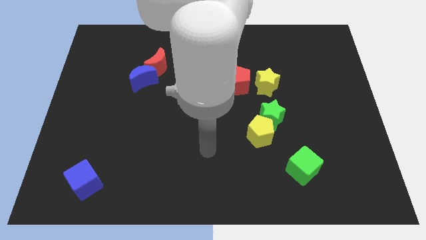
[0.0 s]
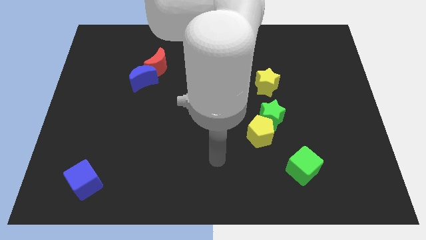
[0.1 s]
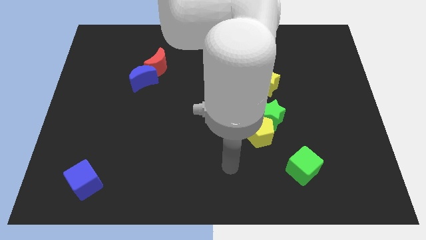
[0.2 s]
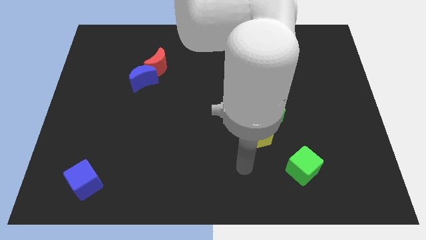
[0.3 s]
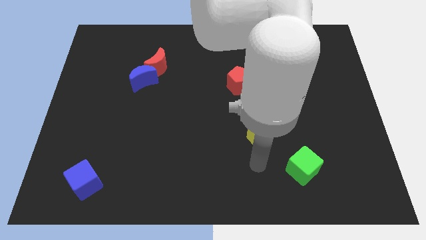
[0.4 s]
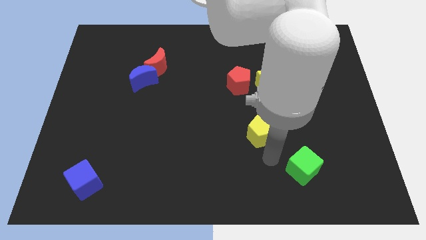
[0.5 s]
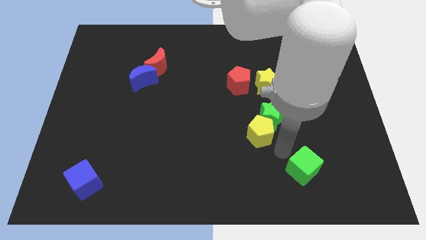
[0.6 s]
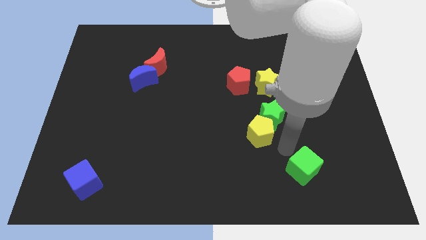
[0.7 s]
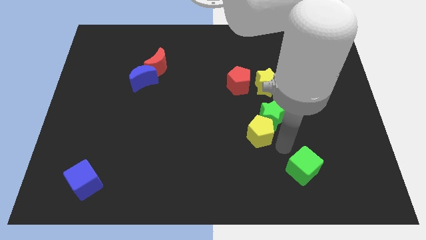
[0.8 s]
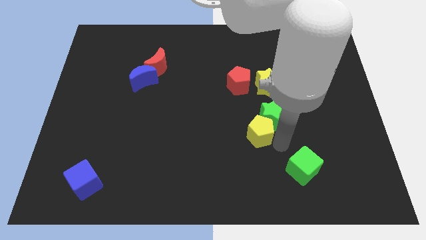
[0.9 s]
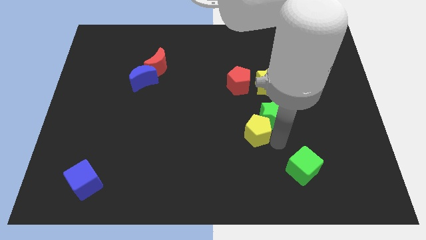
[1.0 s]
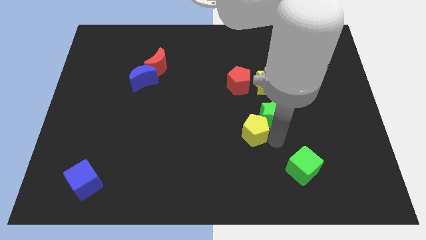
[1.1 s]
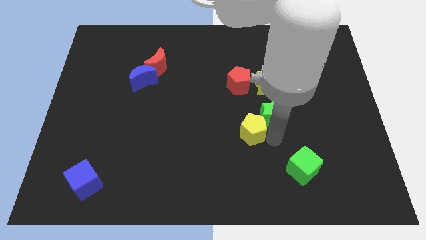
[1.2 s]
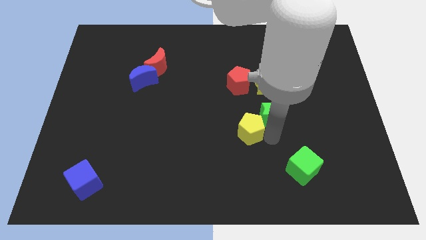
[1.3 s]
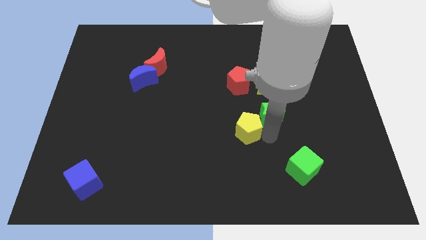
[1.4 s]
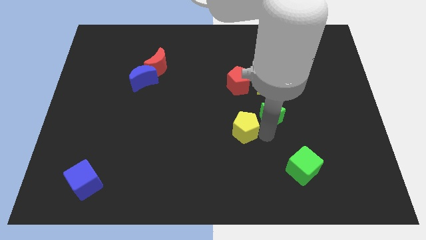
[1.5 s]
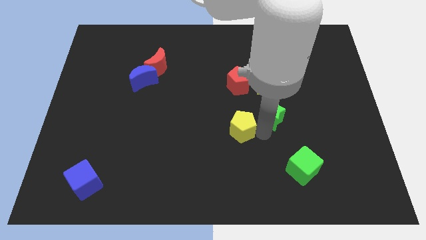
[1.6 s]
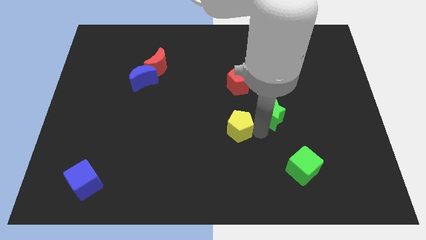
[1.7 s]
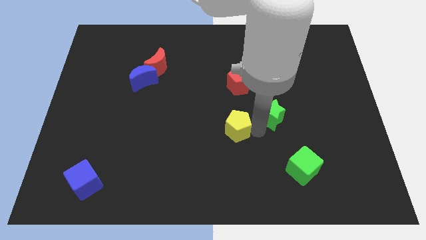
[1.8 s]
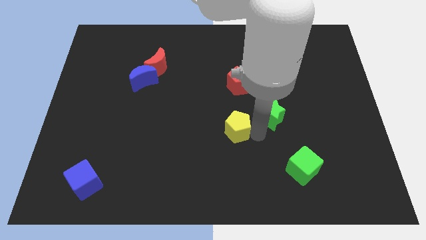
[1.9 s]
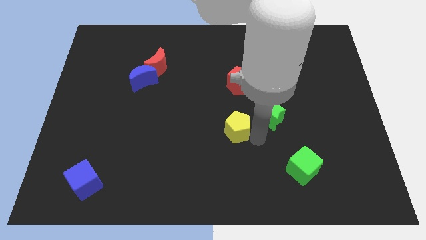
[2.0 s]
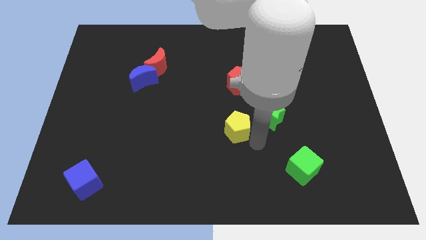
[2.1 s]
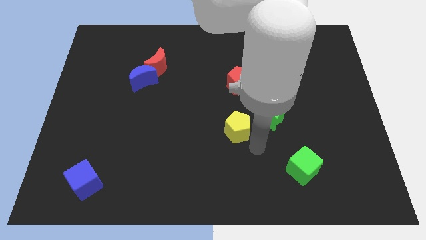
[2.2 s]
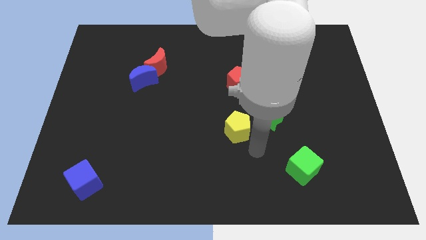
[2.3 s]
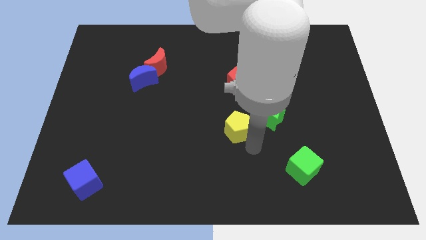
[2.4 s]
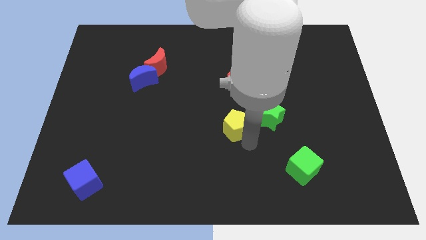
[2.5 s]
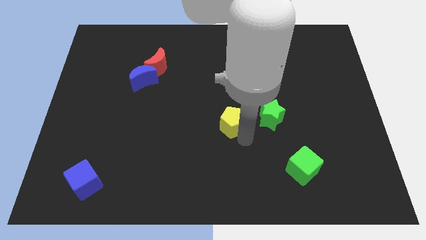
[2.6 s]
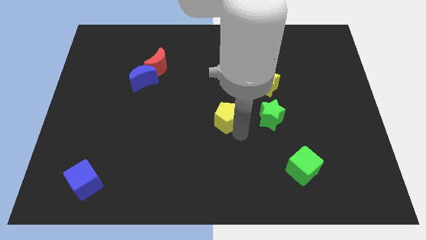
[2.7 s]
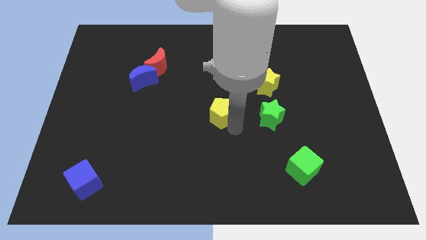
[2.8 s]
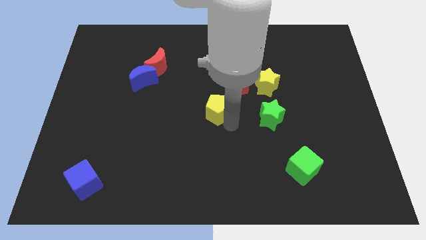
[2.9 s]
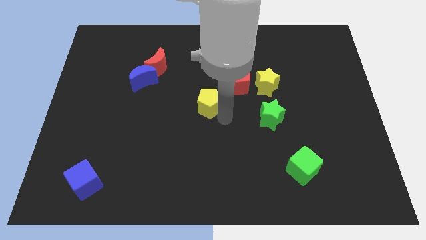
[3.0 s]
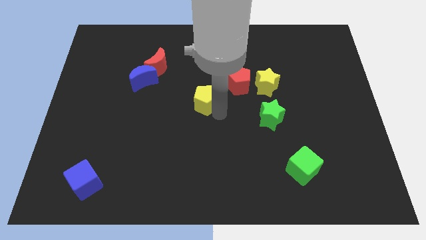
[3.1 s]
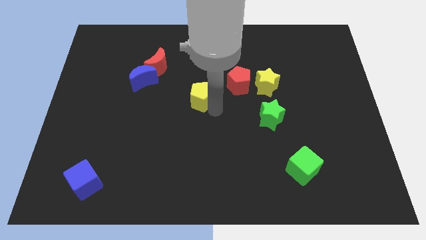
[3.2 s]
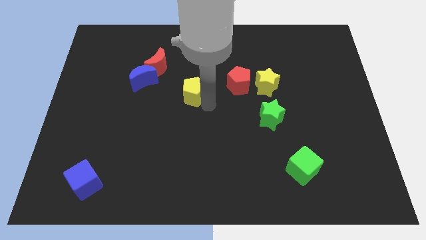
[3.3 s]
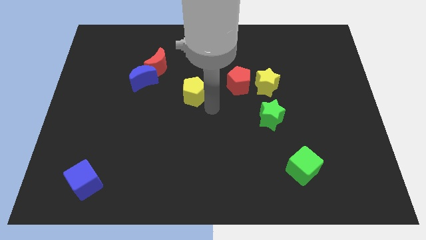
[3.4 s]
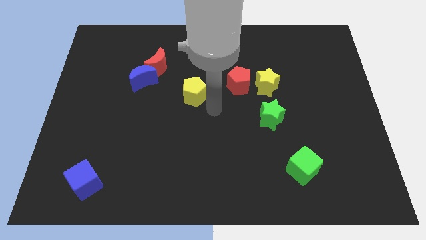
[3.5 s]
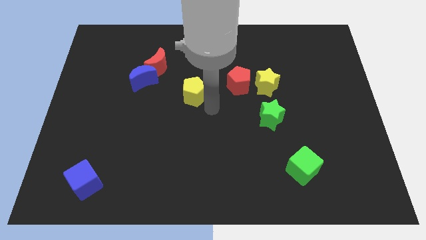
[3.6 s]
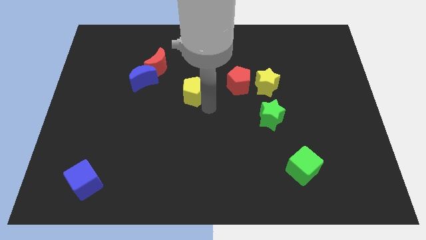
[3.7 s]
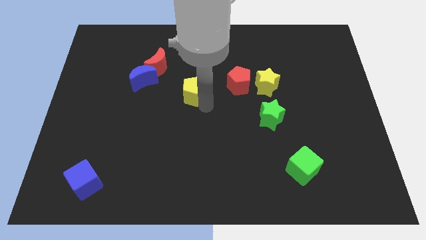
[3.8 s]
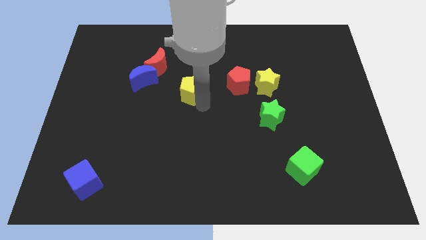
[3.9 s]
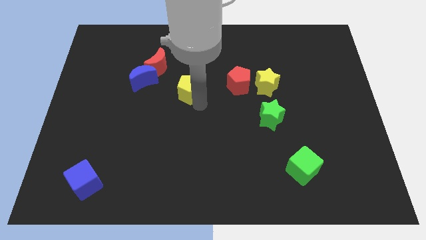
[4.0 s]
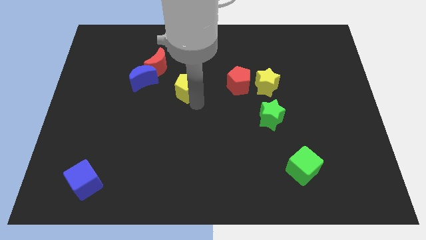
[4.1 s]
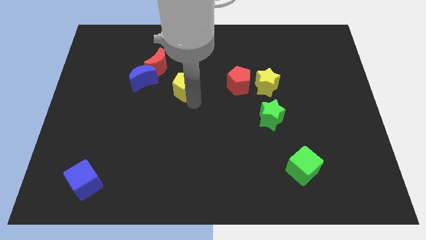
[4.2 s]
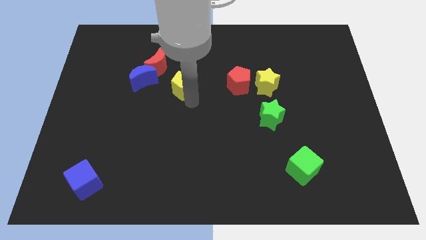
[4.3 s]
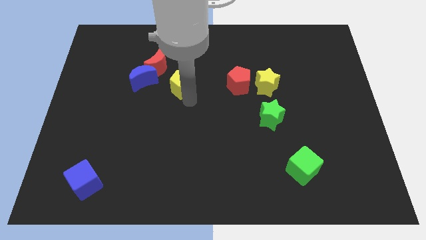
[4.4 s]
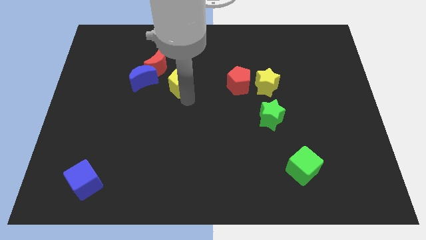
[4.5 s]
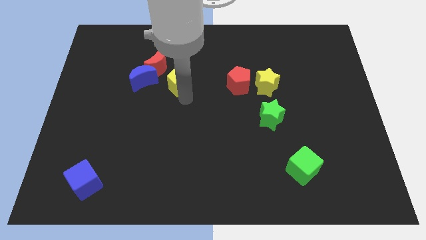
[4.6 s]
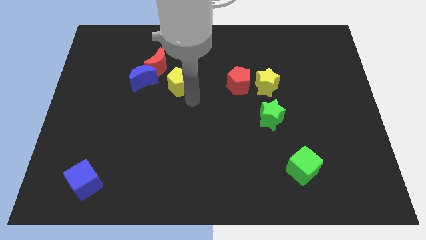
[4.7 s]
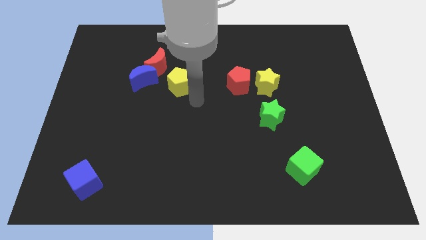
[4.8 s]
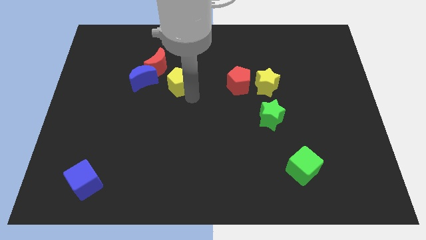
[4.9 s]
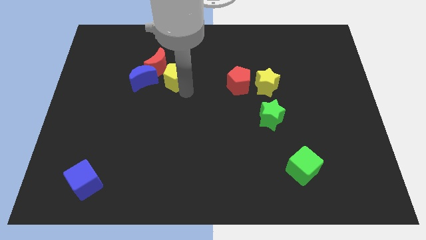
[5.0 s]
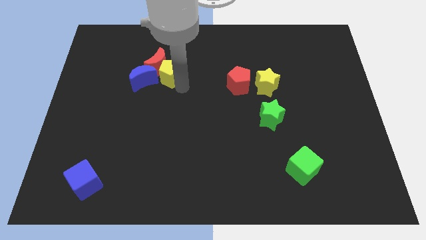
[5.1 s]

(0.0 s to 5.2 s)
push the yellow pentagon to the red moon

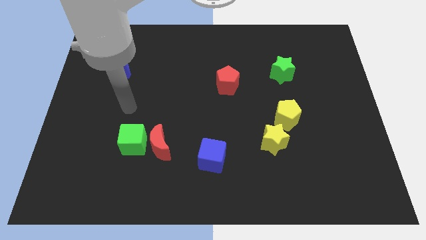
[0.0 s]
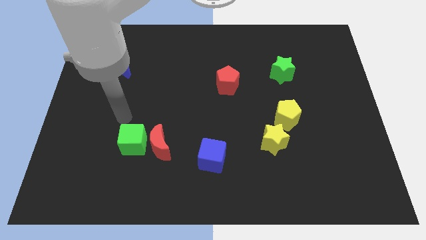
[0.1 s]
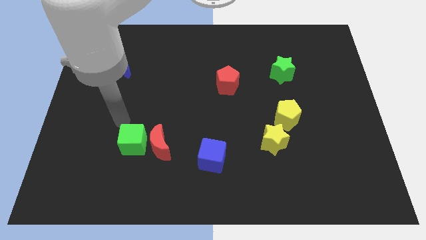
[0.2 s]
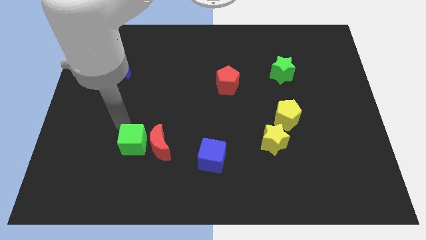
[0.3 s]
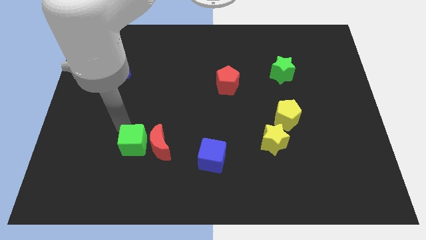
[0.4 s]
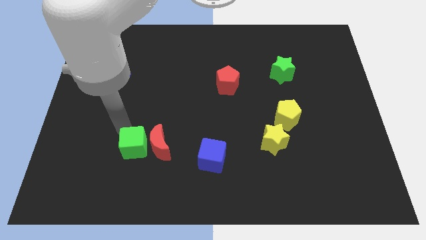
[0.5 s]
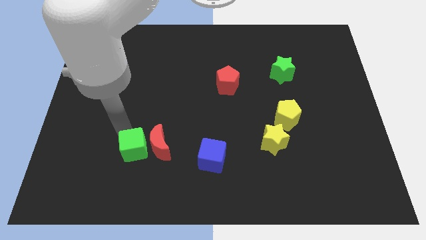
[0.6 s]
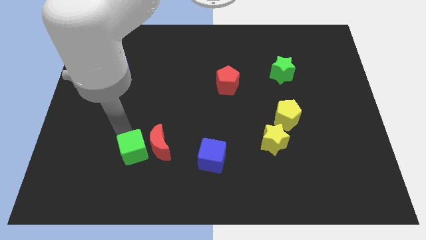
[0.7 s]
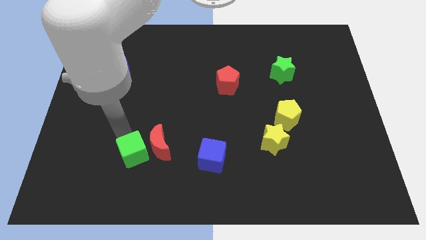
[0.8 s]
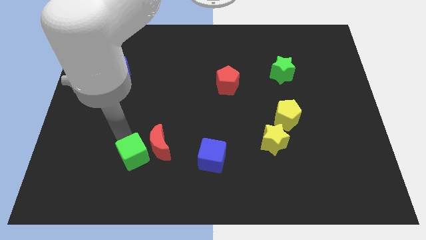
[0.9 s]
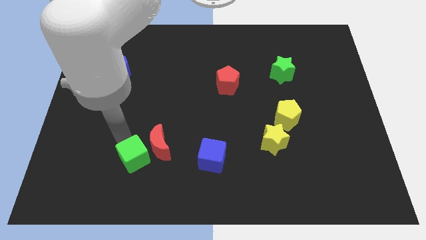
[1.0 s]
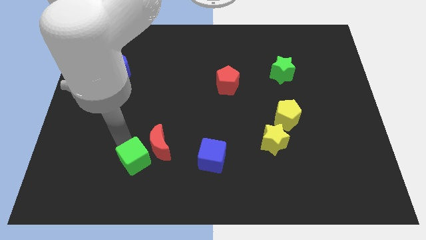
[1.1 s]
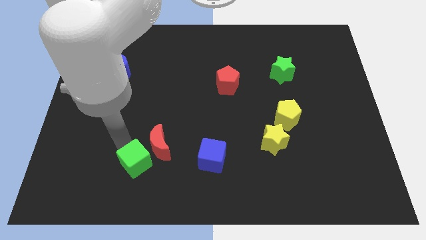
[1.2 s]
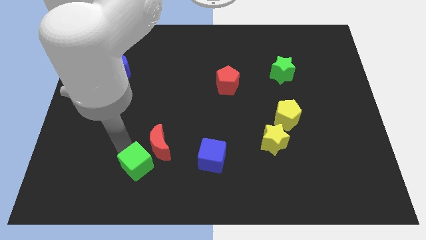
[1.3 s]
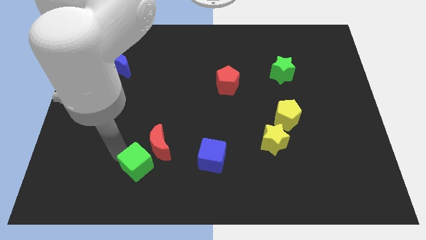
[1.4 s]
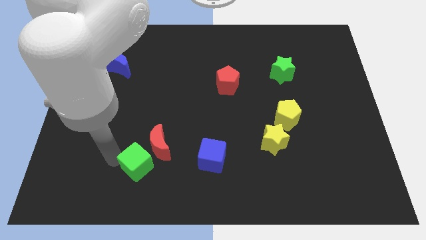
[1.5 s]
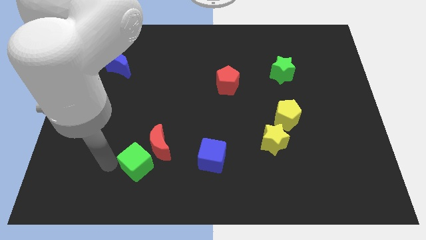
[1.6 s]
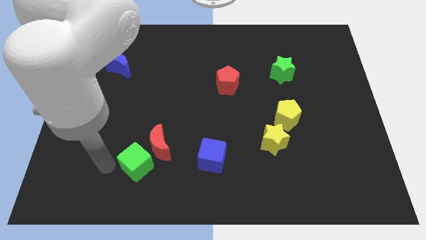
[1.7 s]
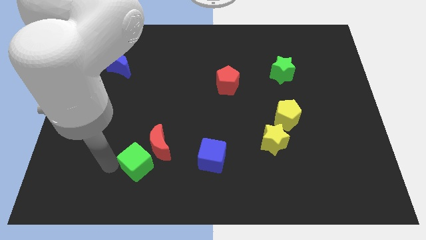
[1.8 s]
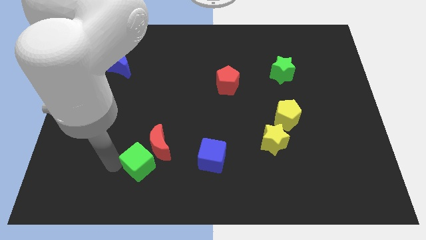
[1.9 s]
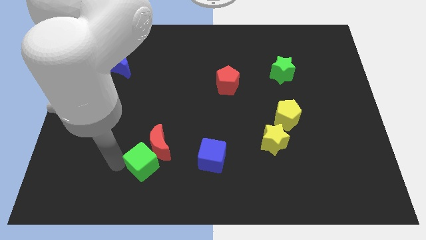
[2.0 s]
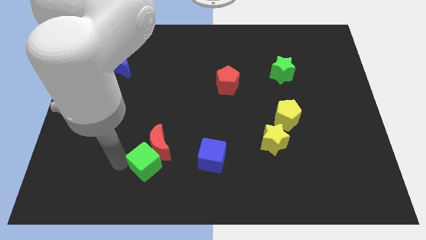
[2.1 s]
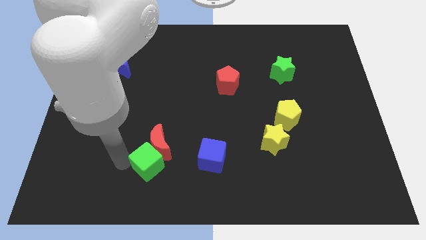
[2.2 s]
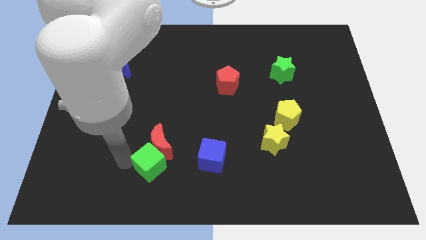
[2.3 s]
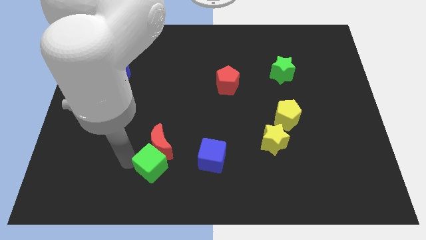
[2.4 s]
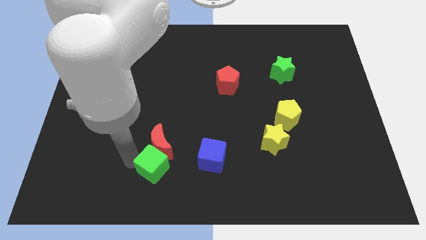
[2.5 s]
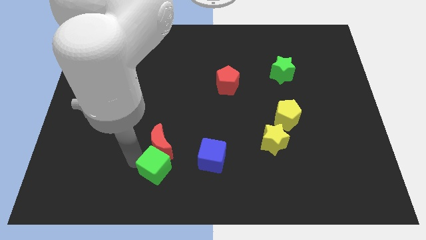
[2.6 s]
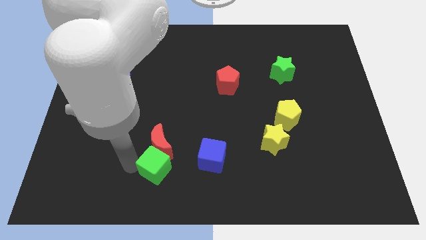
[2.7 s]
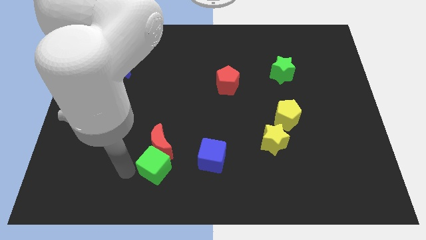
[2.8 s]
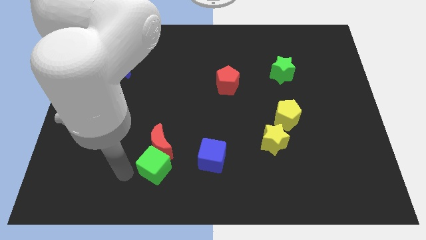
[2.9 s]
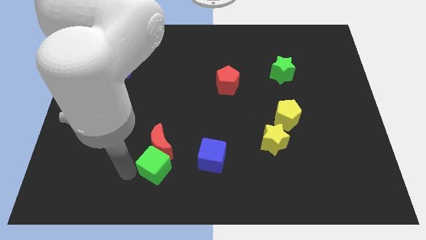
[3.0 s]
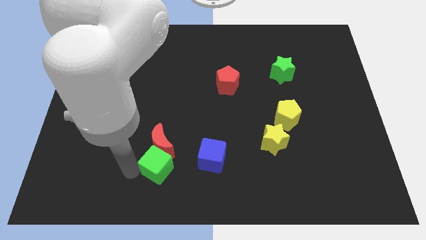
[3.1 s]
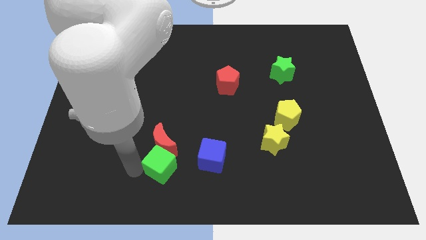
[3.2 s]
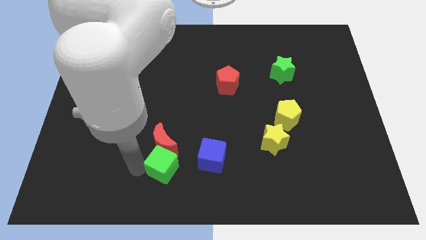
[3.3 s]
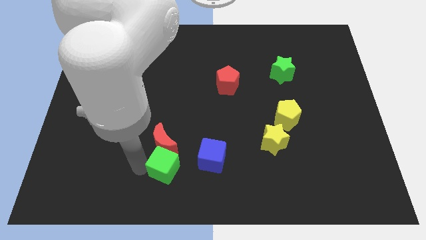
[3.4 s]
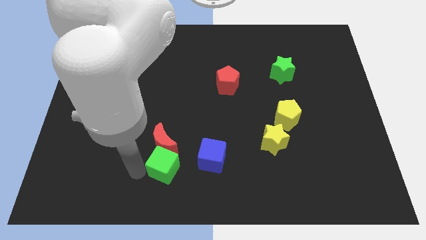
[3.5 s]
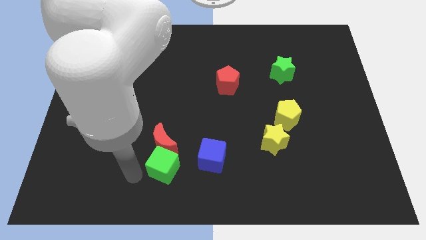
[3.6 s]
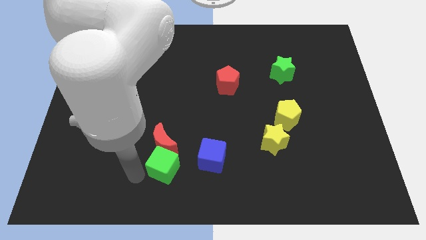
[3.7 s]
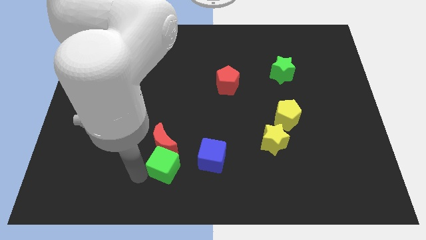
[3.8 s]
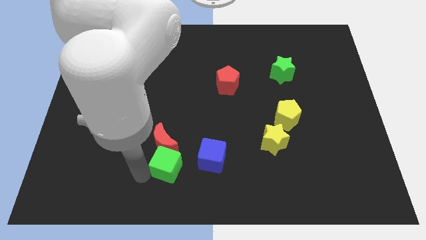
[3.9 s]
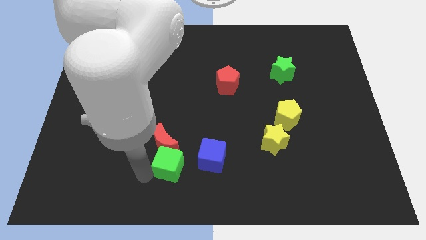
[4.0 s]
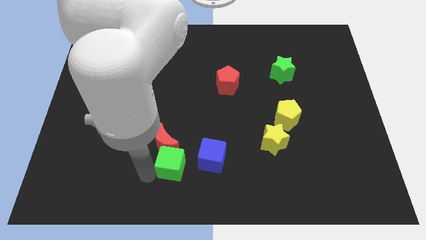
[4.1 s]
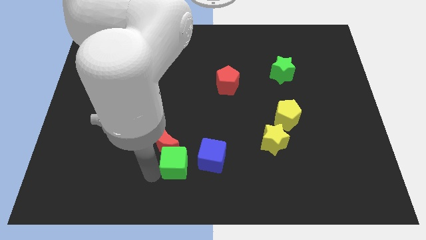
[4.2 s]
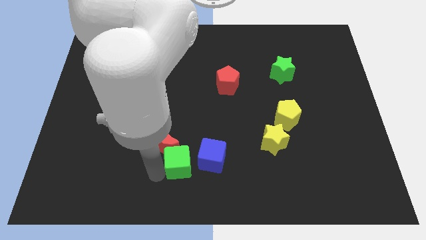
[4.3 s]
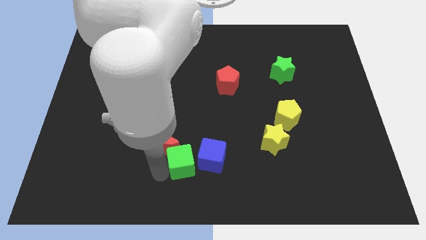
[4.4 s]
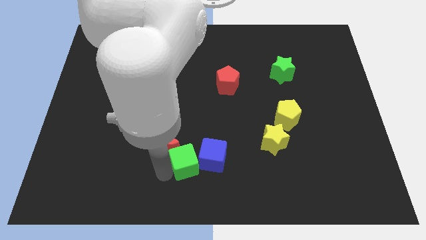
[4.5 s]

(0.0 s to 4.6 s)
put the green cube close to the blue cube
